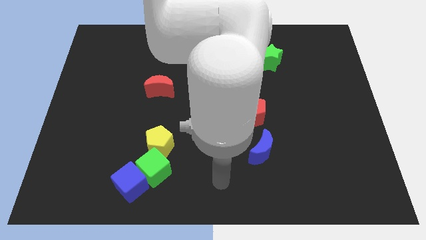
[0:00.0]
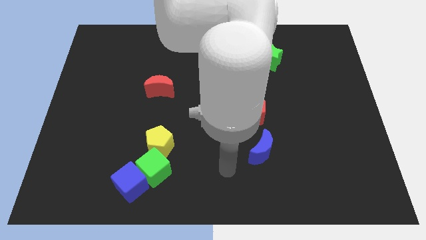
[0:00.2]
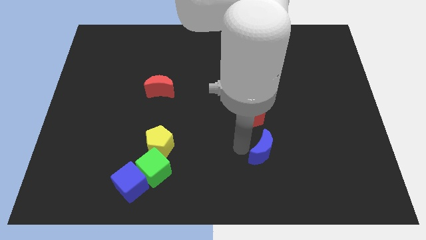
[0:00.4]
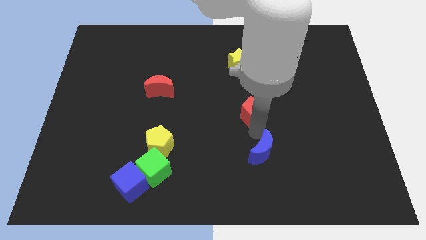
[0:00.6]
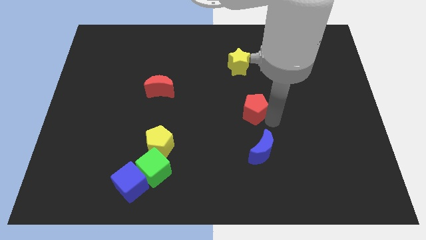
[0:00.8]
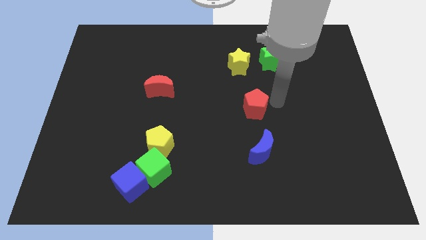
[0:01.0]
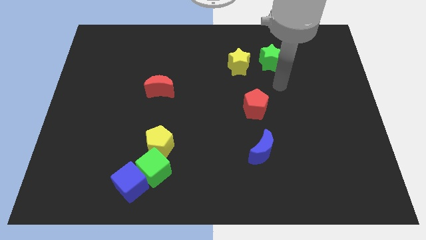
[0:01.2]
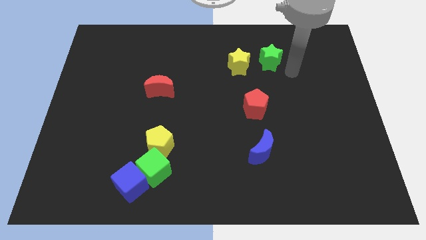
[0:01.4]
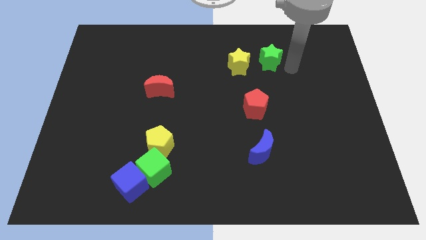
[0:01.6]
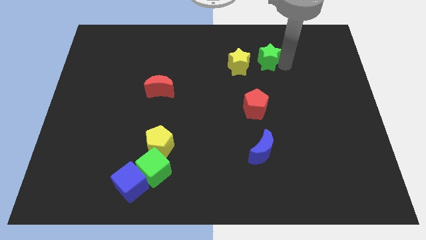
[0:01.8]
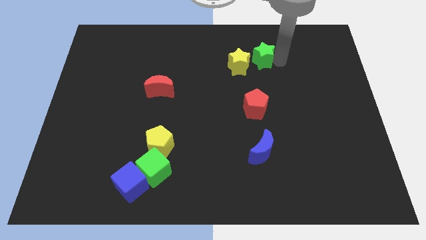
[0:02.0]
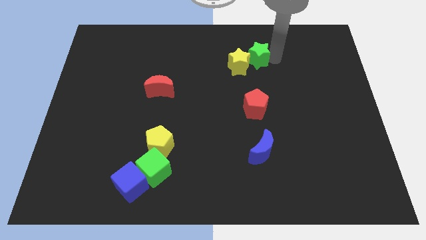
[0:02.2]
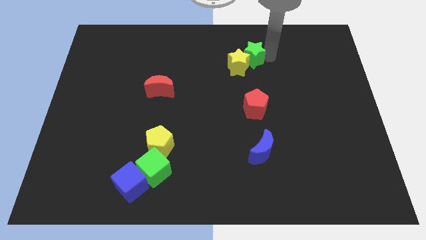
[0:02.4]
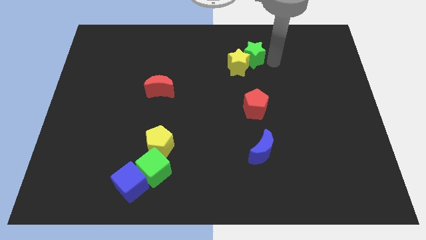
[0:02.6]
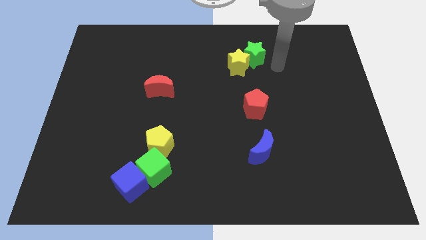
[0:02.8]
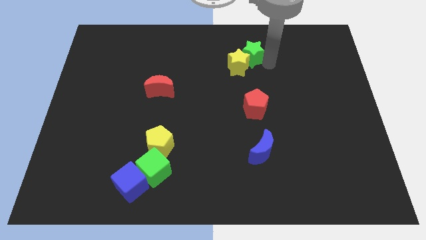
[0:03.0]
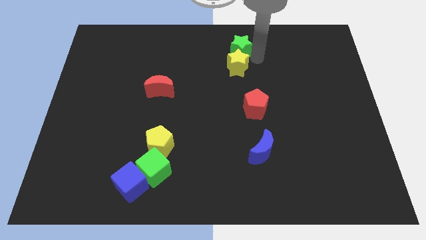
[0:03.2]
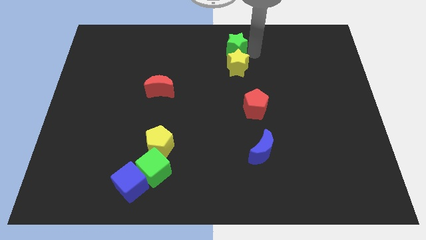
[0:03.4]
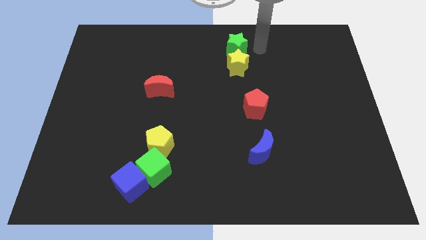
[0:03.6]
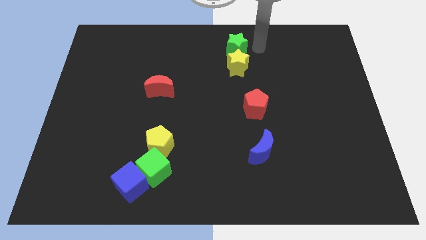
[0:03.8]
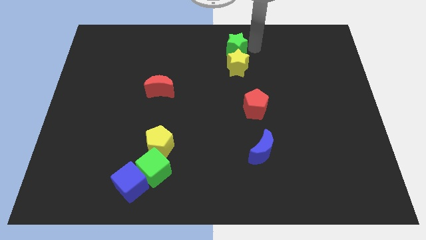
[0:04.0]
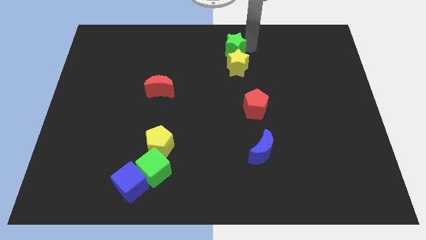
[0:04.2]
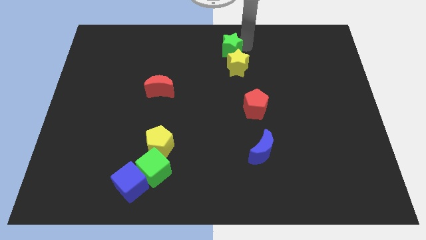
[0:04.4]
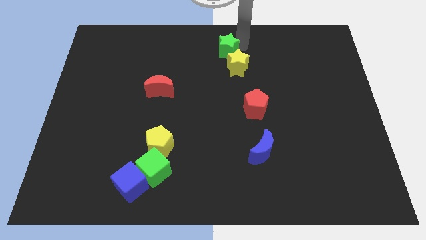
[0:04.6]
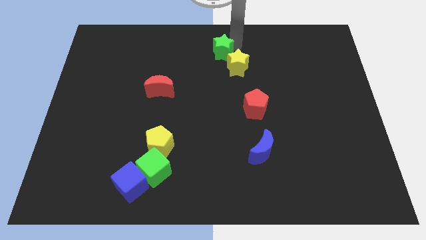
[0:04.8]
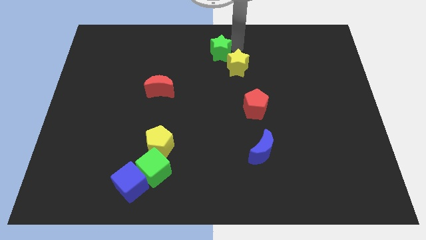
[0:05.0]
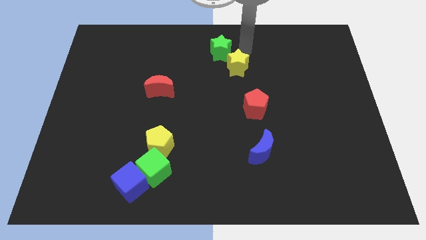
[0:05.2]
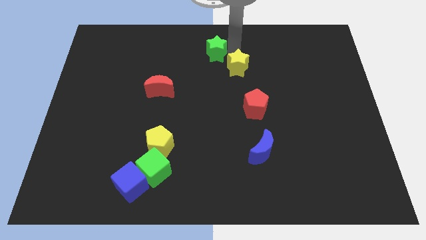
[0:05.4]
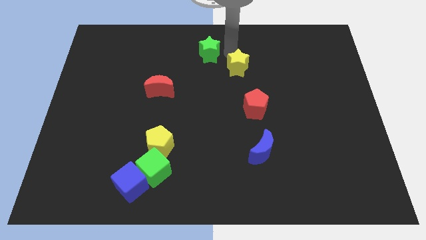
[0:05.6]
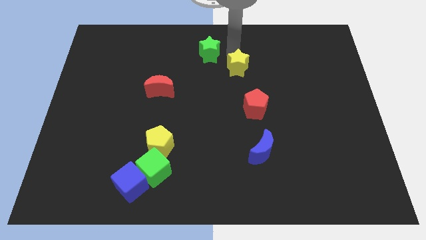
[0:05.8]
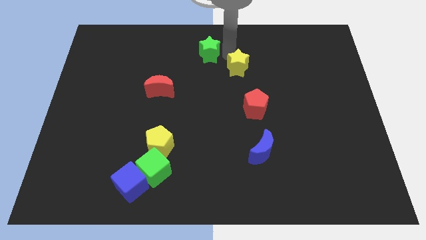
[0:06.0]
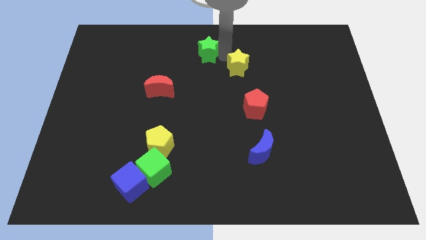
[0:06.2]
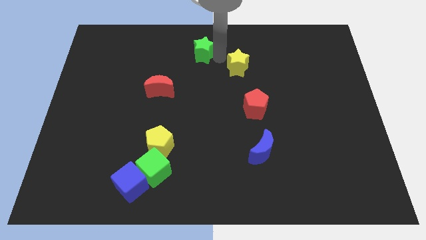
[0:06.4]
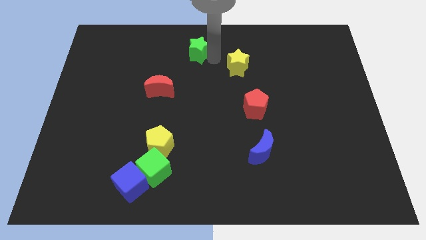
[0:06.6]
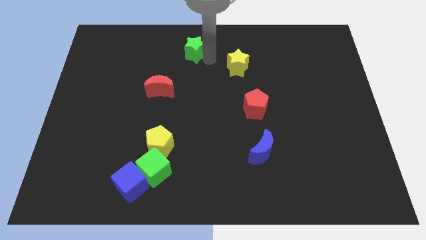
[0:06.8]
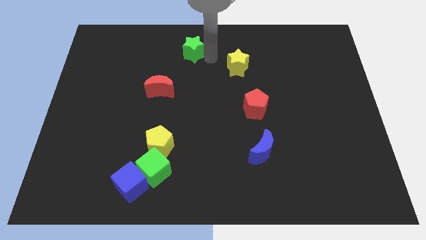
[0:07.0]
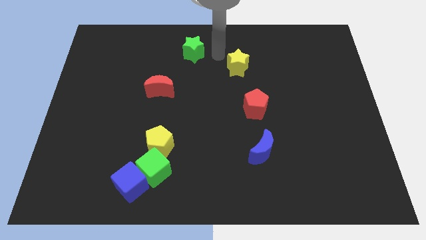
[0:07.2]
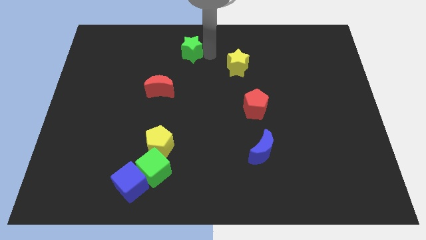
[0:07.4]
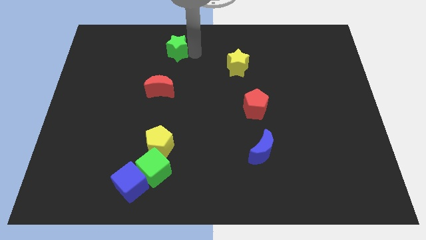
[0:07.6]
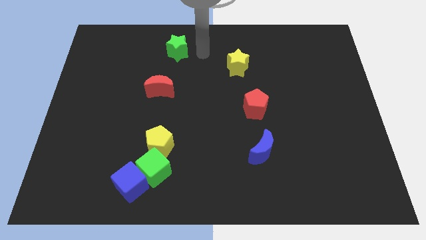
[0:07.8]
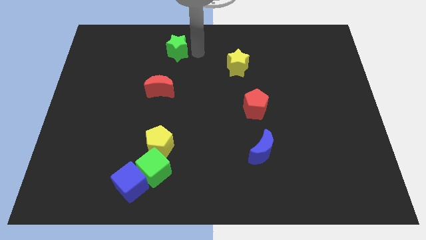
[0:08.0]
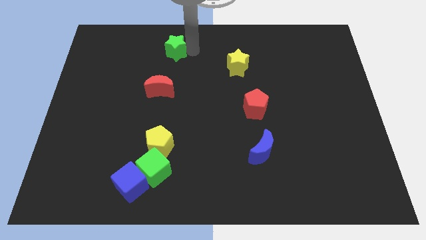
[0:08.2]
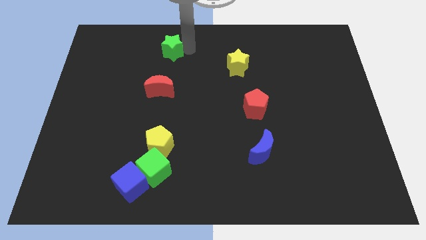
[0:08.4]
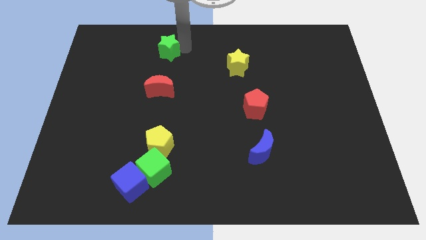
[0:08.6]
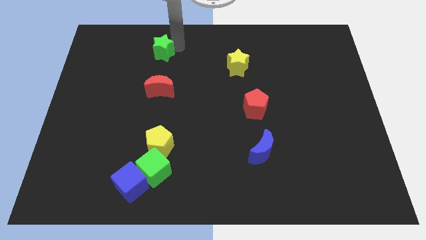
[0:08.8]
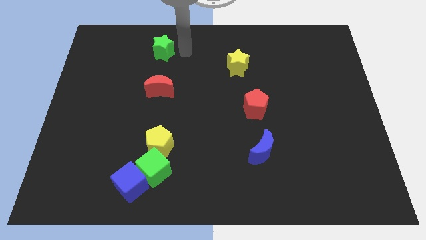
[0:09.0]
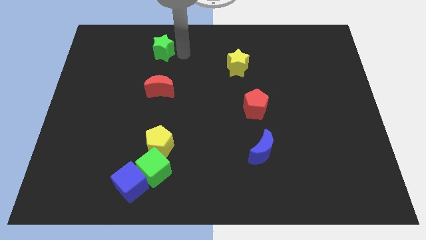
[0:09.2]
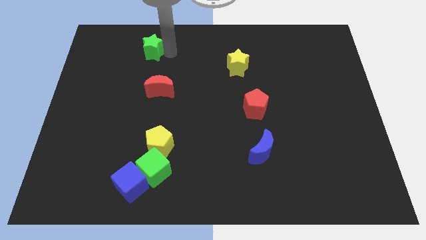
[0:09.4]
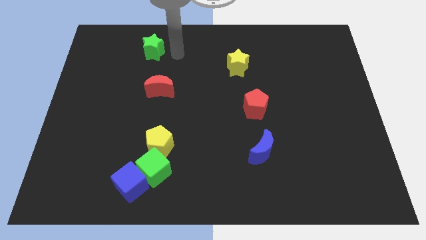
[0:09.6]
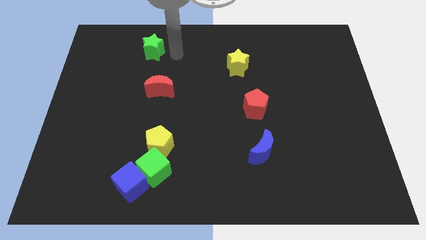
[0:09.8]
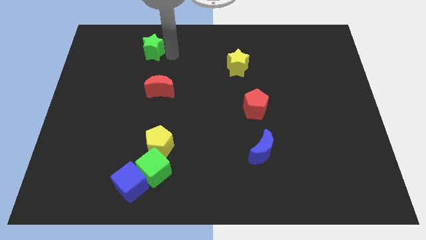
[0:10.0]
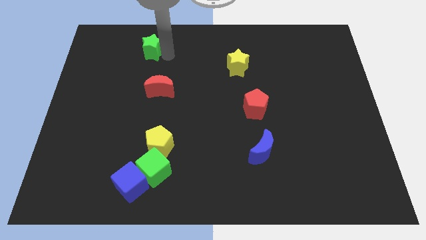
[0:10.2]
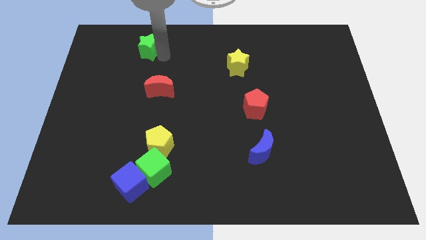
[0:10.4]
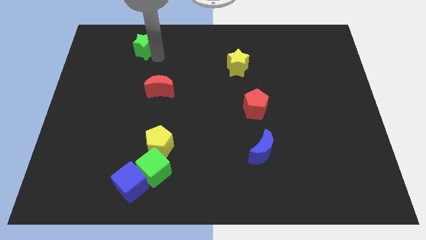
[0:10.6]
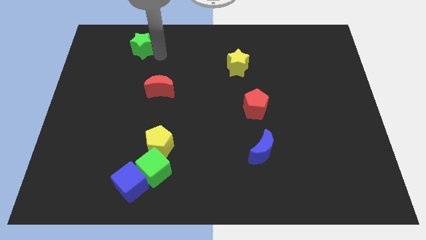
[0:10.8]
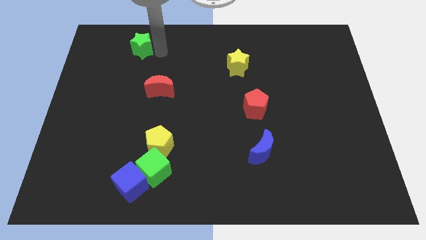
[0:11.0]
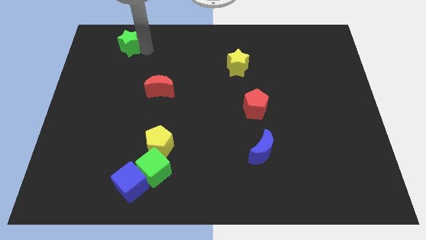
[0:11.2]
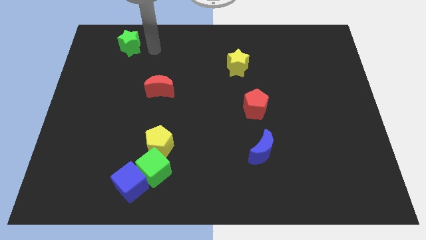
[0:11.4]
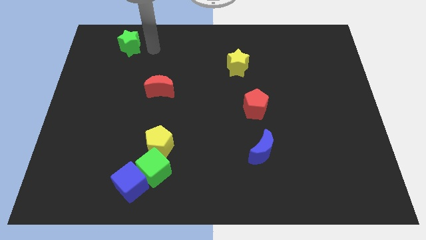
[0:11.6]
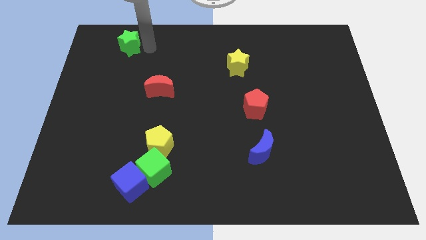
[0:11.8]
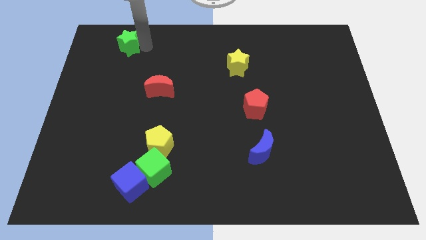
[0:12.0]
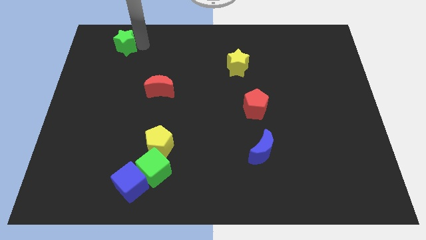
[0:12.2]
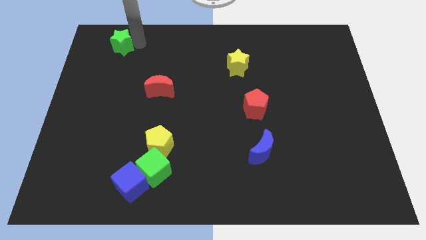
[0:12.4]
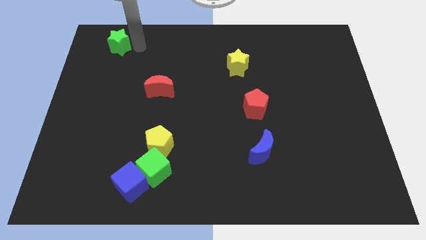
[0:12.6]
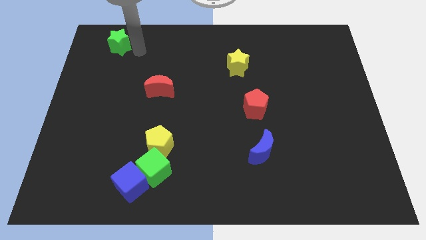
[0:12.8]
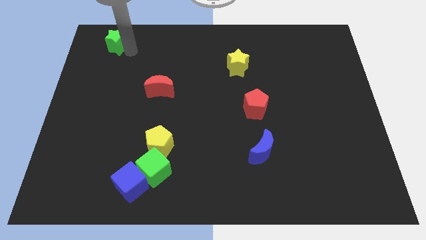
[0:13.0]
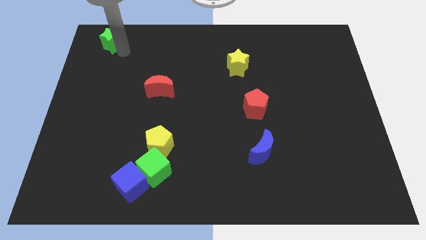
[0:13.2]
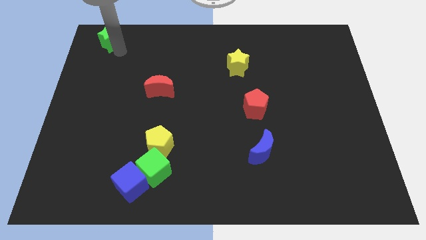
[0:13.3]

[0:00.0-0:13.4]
move the green star to the top left corner

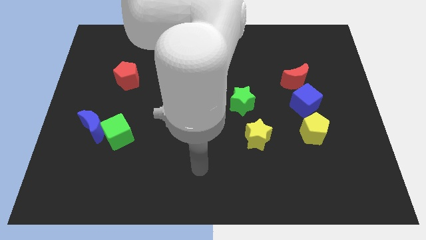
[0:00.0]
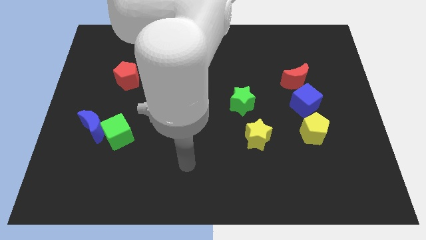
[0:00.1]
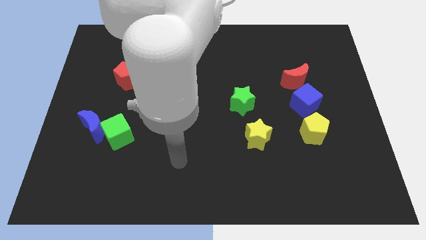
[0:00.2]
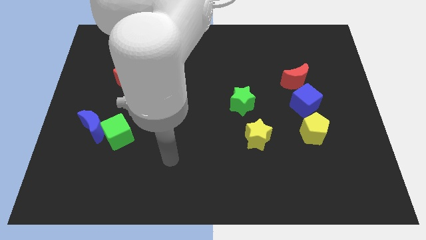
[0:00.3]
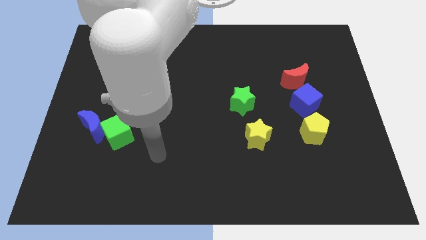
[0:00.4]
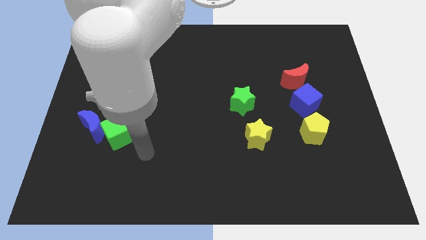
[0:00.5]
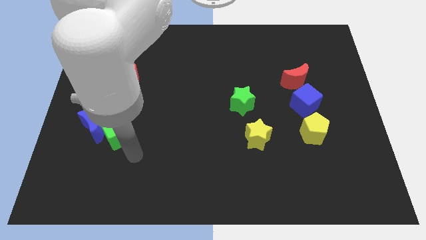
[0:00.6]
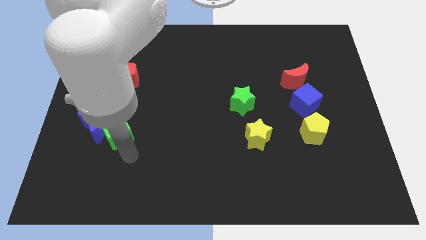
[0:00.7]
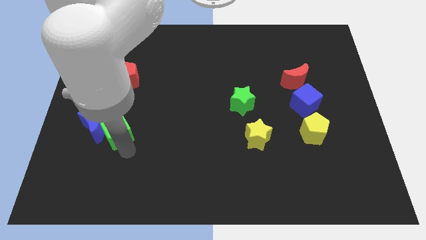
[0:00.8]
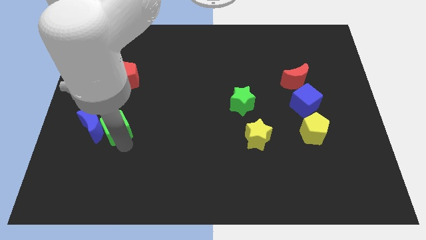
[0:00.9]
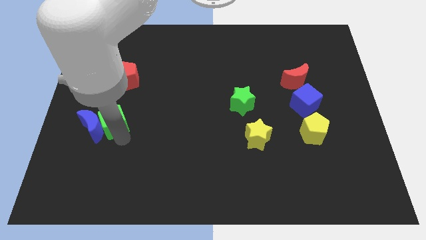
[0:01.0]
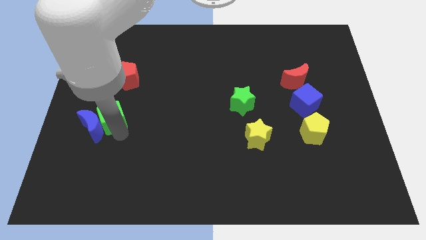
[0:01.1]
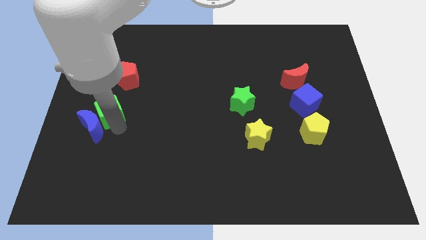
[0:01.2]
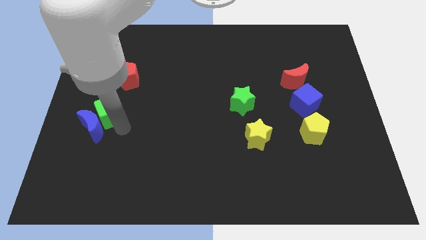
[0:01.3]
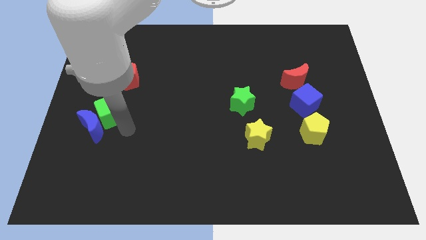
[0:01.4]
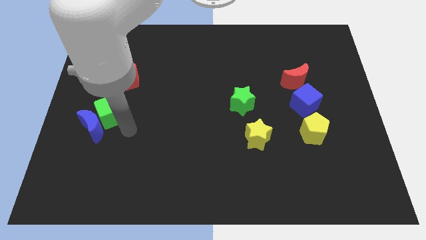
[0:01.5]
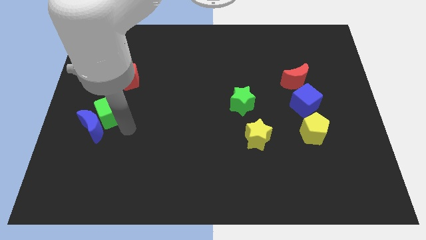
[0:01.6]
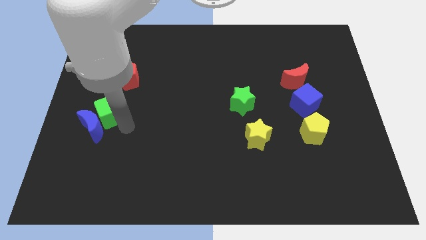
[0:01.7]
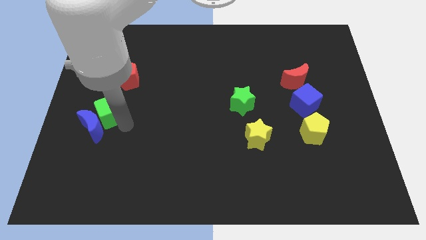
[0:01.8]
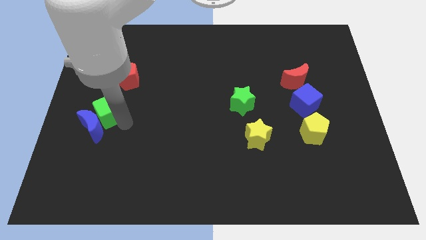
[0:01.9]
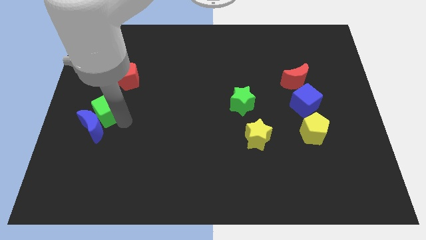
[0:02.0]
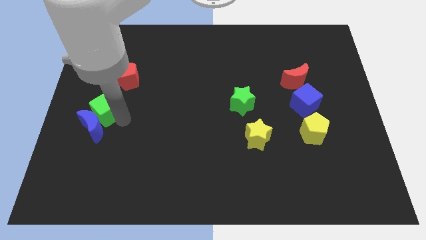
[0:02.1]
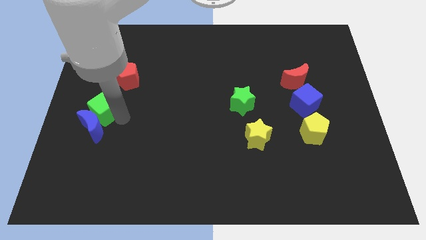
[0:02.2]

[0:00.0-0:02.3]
push the green cube to the left side of the board
